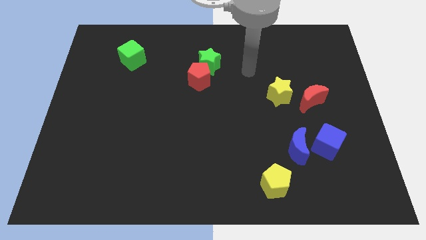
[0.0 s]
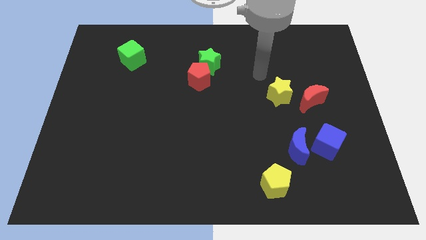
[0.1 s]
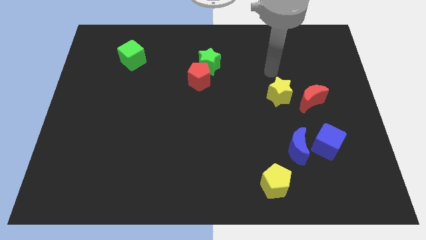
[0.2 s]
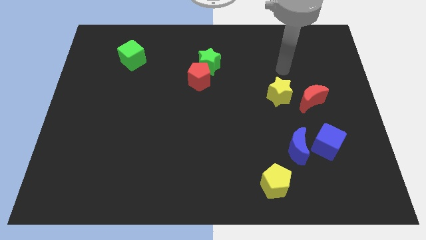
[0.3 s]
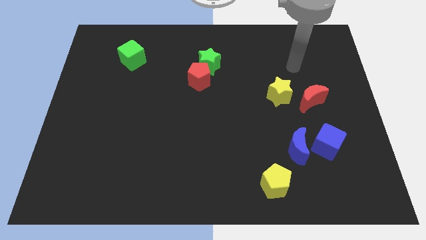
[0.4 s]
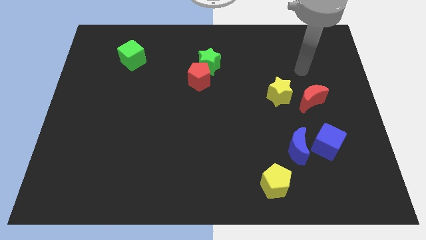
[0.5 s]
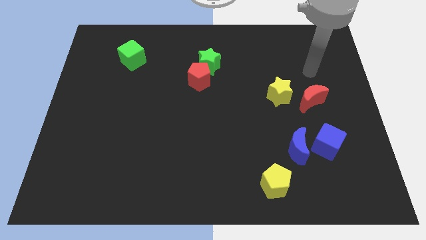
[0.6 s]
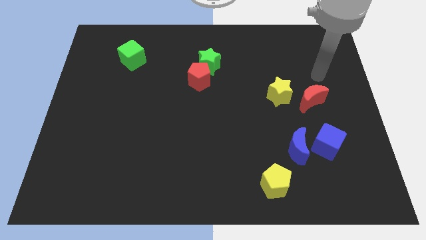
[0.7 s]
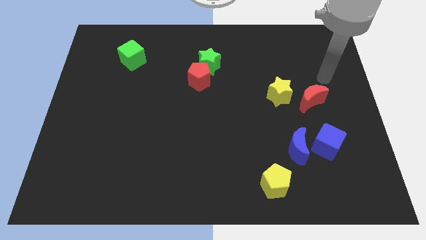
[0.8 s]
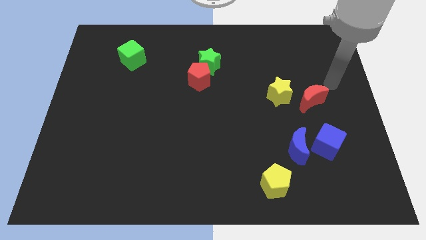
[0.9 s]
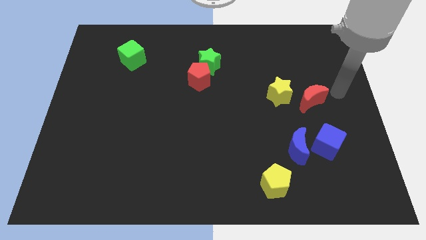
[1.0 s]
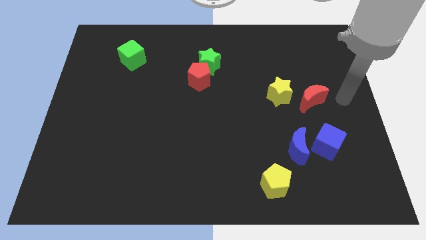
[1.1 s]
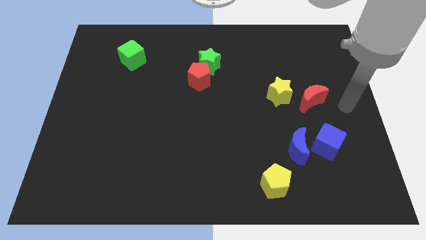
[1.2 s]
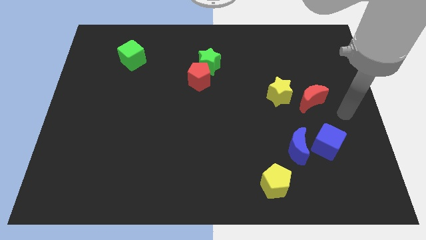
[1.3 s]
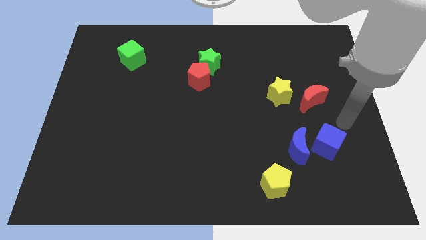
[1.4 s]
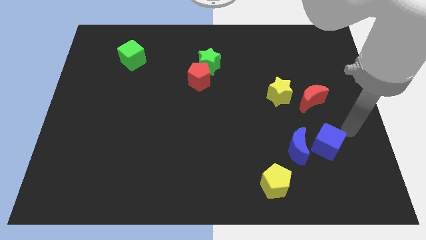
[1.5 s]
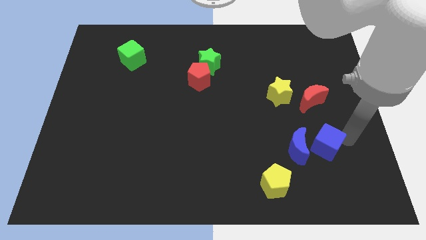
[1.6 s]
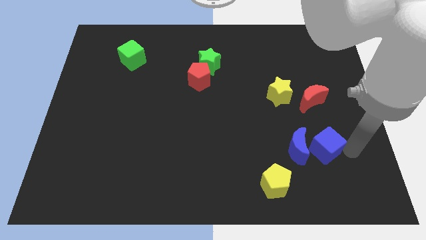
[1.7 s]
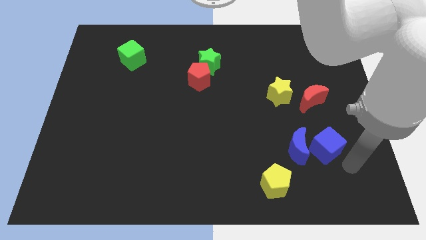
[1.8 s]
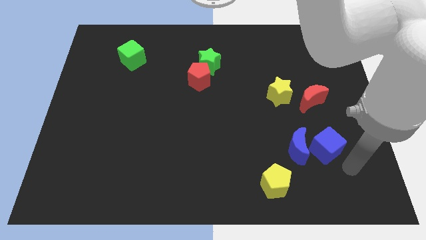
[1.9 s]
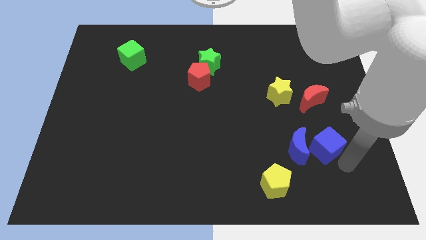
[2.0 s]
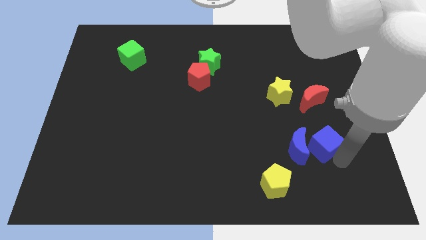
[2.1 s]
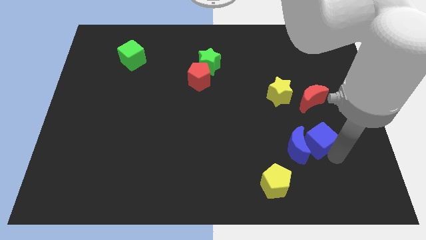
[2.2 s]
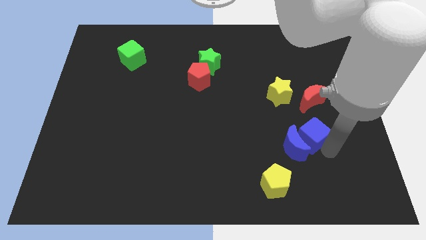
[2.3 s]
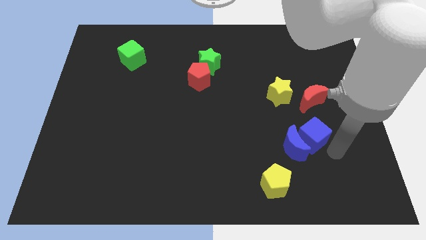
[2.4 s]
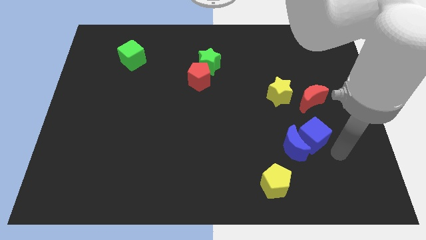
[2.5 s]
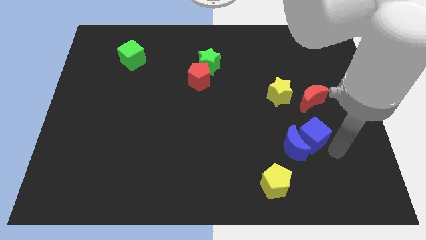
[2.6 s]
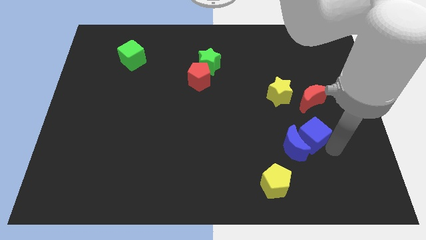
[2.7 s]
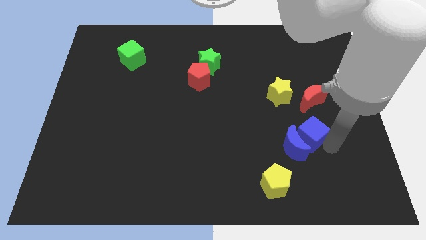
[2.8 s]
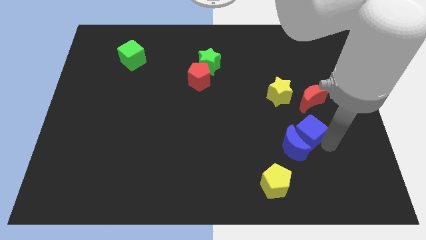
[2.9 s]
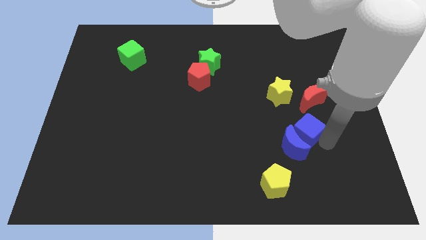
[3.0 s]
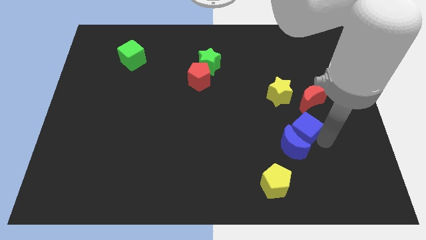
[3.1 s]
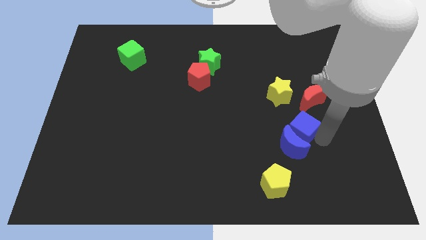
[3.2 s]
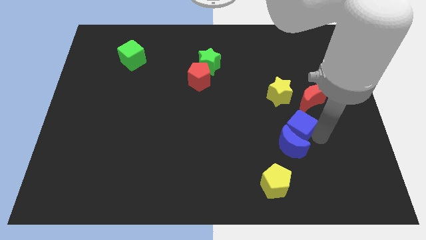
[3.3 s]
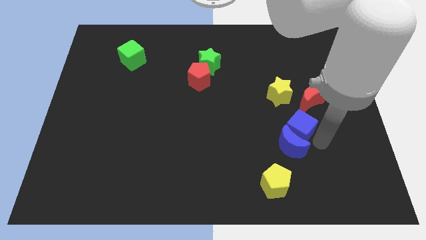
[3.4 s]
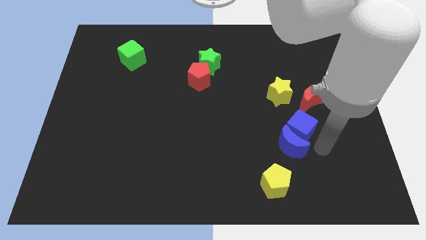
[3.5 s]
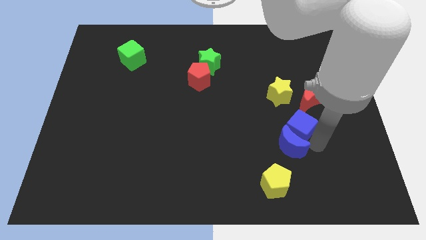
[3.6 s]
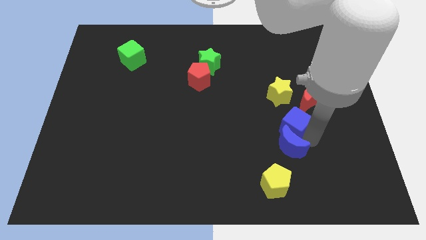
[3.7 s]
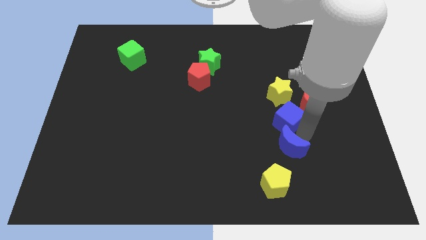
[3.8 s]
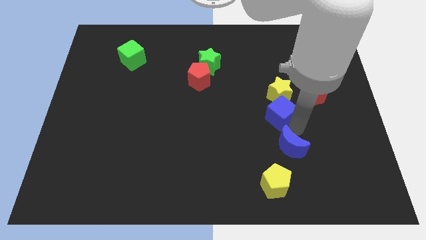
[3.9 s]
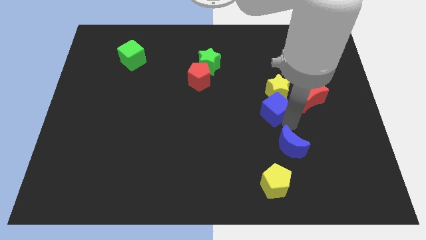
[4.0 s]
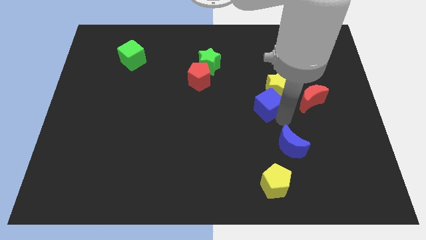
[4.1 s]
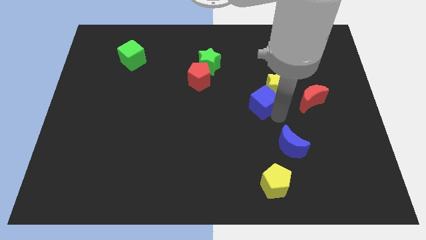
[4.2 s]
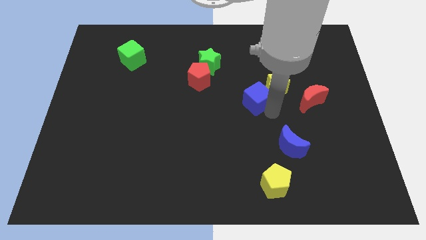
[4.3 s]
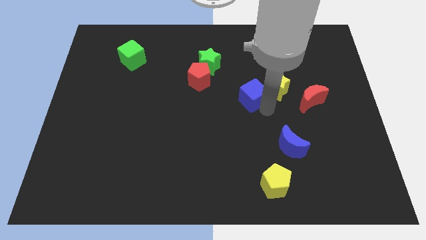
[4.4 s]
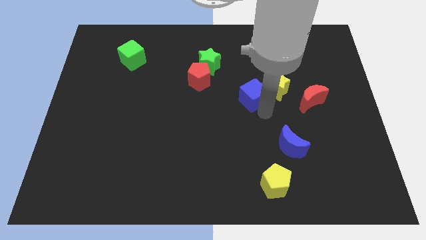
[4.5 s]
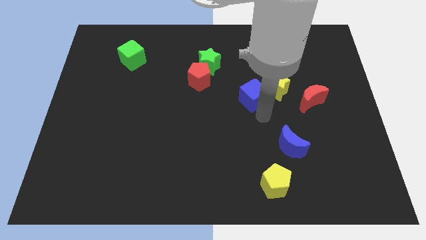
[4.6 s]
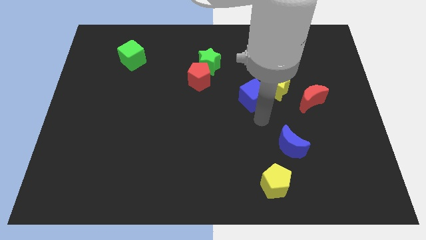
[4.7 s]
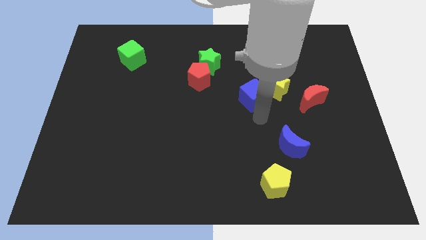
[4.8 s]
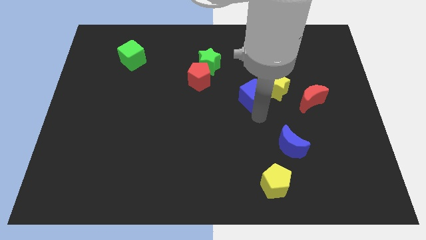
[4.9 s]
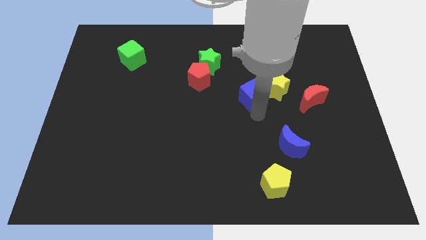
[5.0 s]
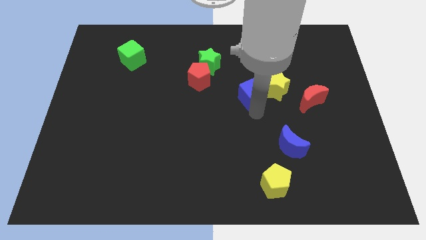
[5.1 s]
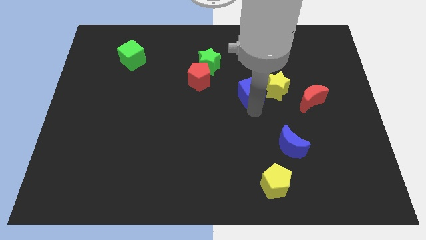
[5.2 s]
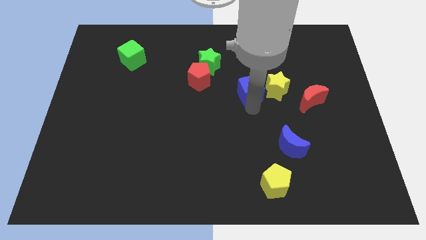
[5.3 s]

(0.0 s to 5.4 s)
slide the blue cube to the right of the red pentagon
